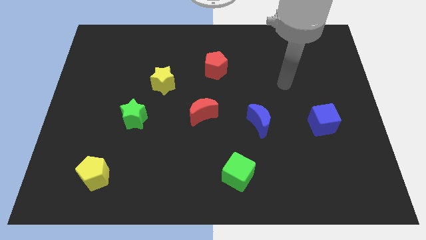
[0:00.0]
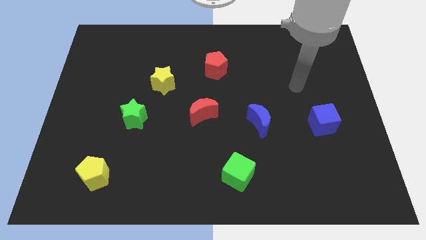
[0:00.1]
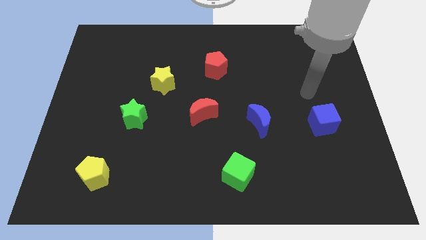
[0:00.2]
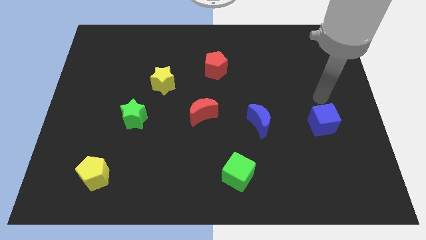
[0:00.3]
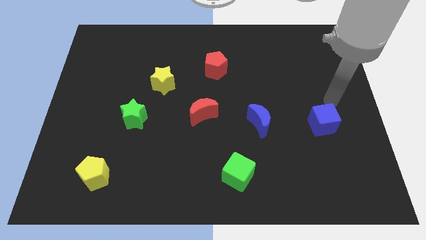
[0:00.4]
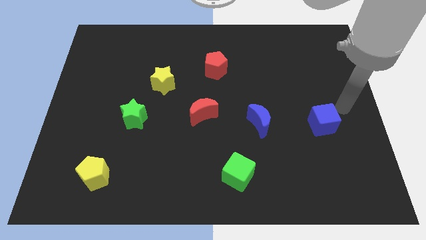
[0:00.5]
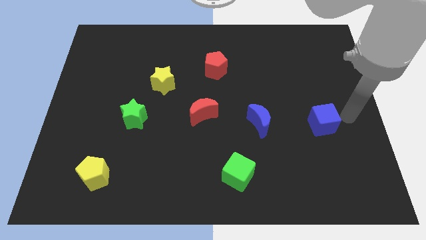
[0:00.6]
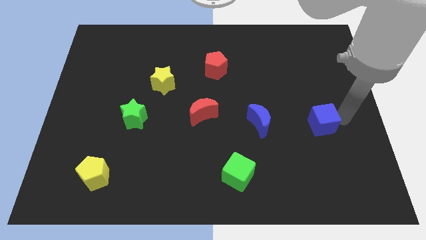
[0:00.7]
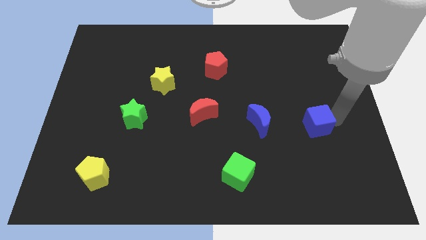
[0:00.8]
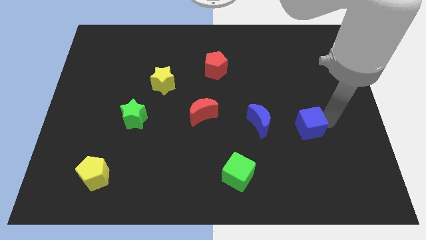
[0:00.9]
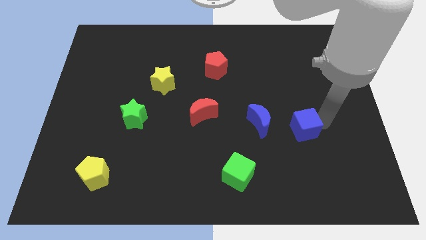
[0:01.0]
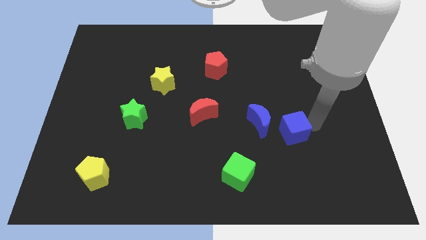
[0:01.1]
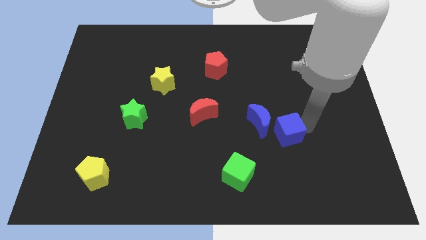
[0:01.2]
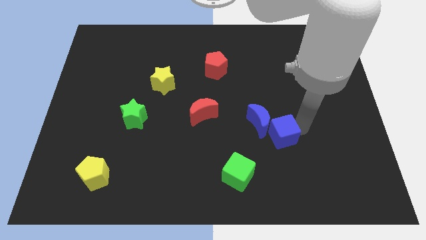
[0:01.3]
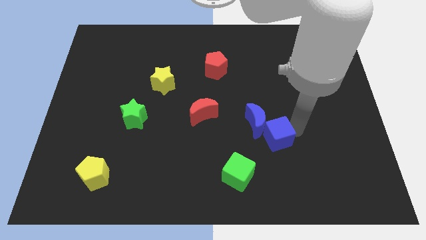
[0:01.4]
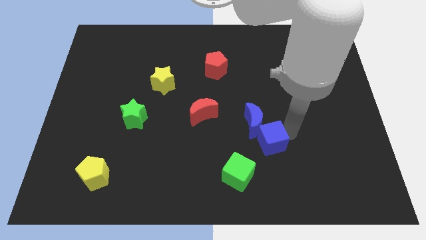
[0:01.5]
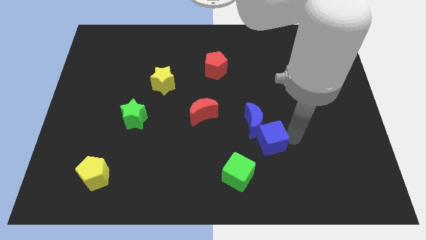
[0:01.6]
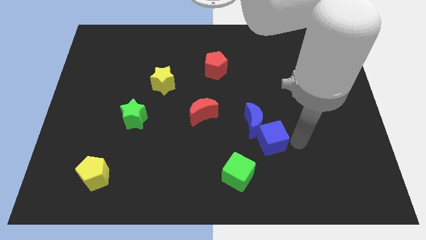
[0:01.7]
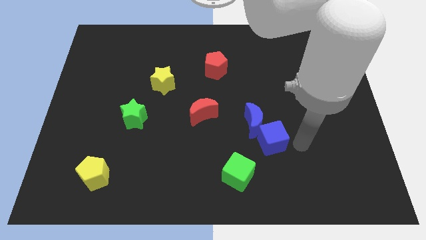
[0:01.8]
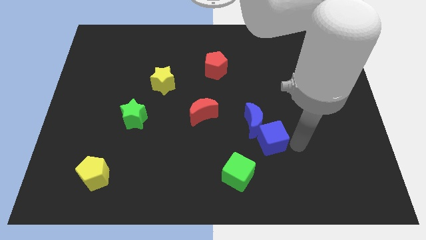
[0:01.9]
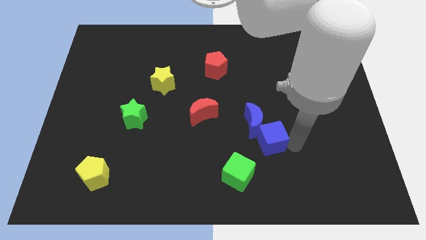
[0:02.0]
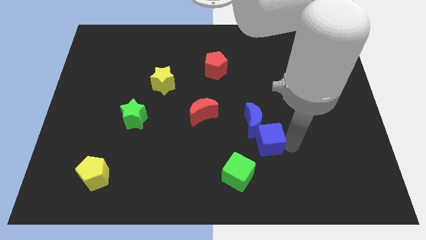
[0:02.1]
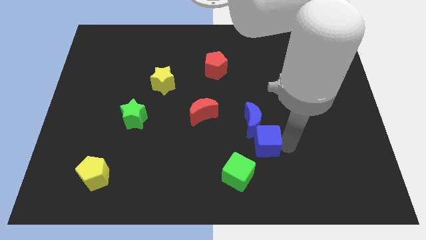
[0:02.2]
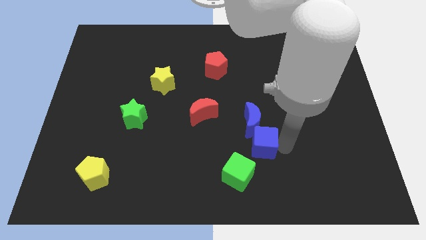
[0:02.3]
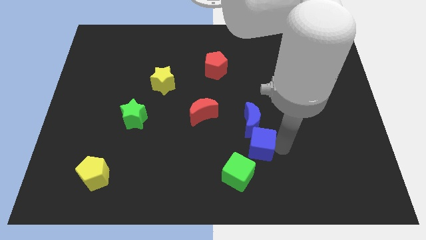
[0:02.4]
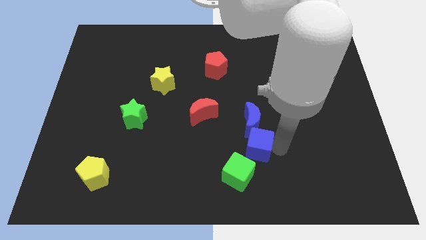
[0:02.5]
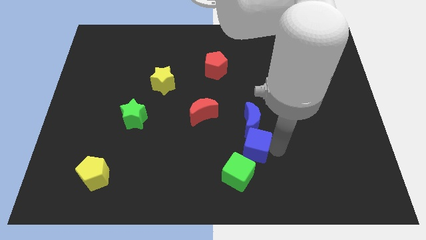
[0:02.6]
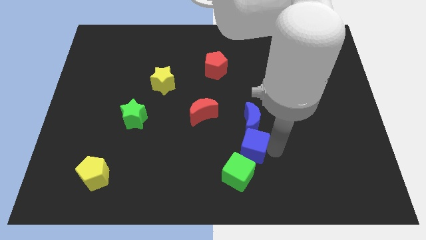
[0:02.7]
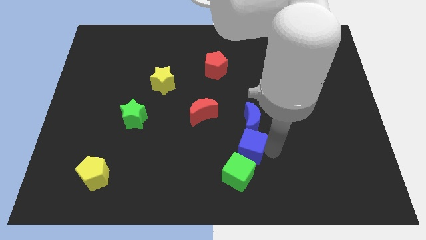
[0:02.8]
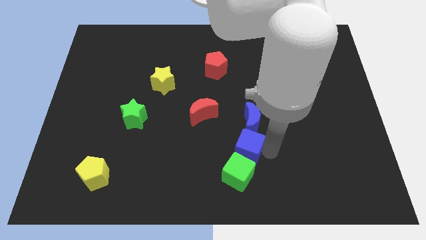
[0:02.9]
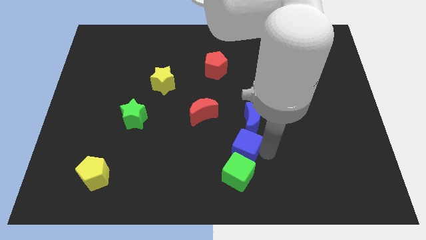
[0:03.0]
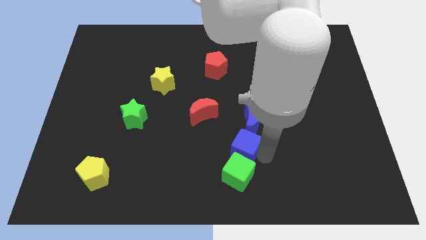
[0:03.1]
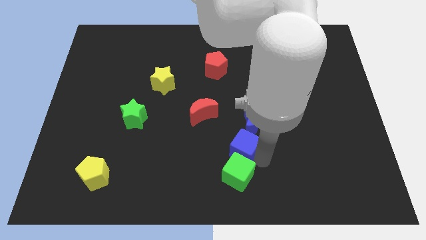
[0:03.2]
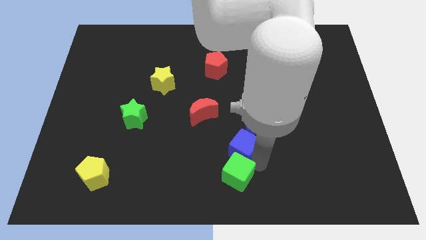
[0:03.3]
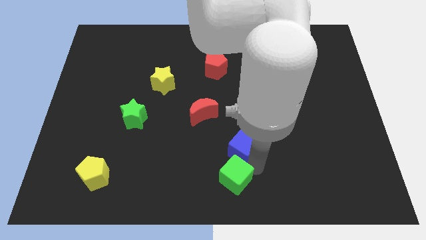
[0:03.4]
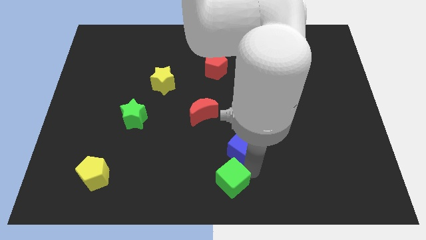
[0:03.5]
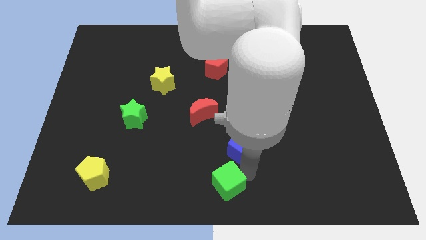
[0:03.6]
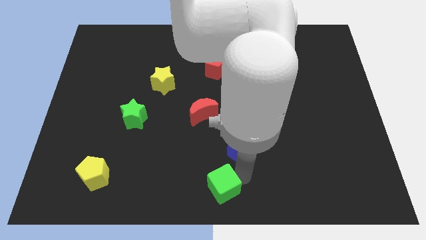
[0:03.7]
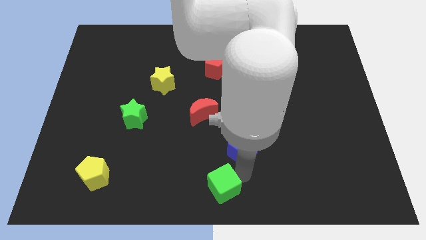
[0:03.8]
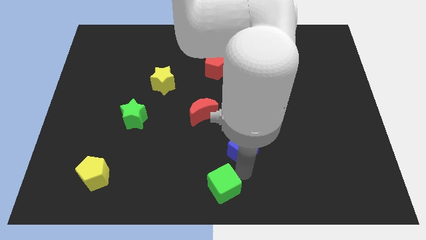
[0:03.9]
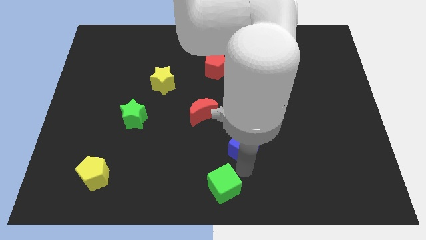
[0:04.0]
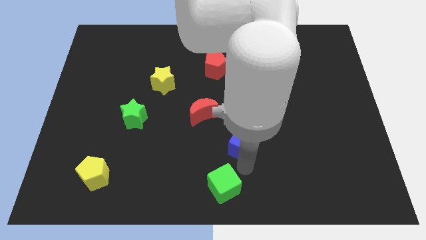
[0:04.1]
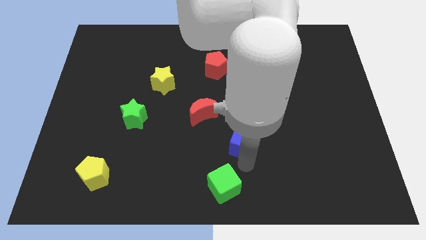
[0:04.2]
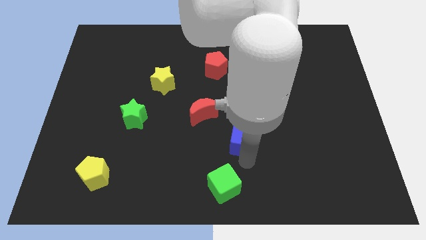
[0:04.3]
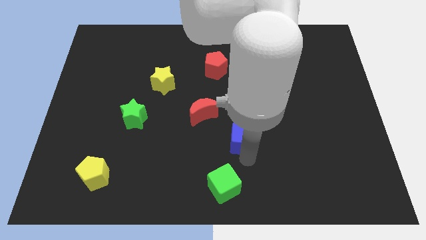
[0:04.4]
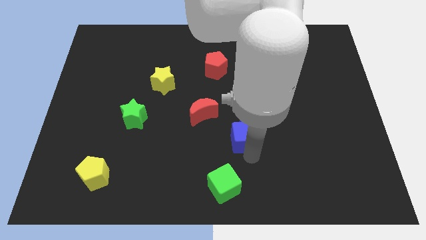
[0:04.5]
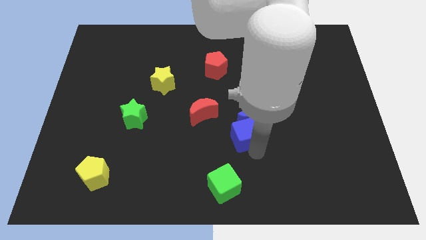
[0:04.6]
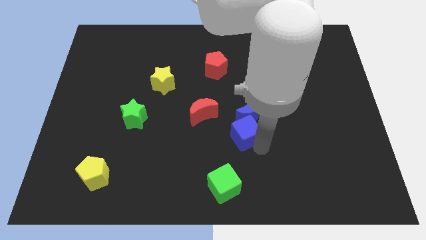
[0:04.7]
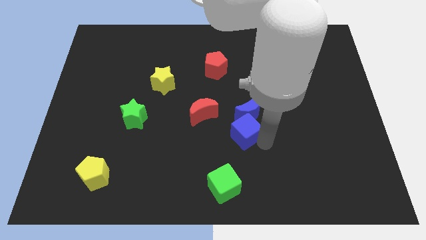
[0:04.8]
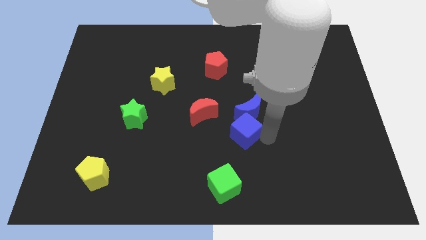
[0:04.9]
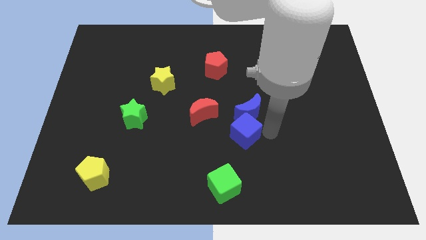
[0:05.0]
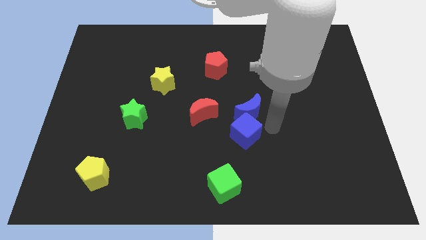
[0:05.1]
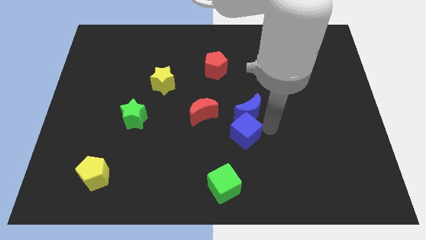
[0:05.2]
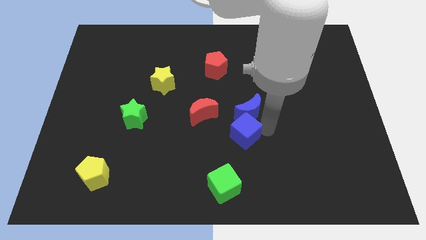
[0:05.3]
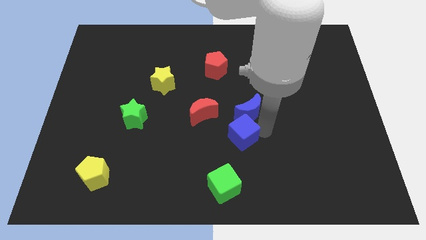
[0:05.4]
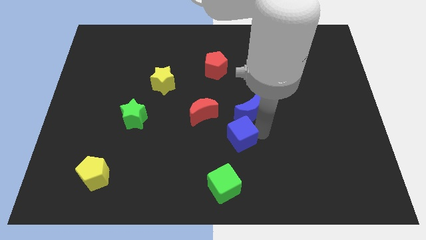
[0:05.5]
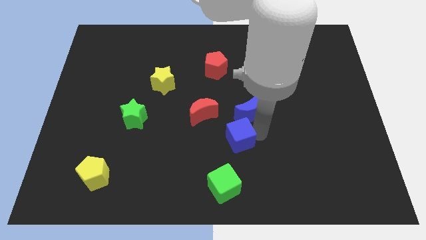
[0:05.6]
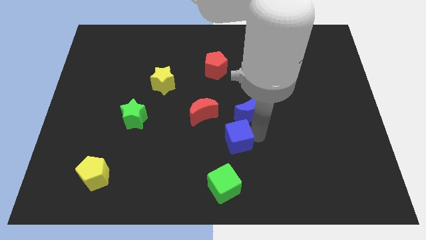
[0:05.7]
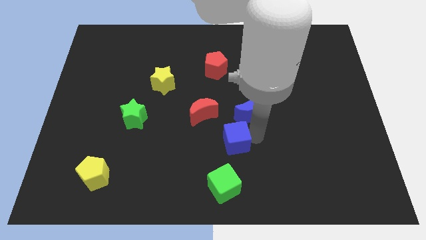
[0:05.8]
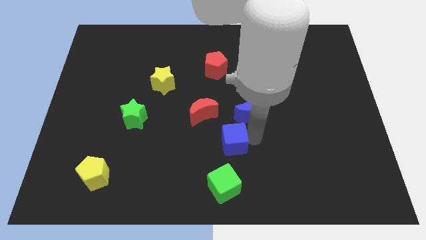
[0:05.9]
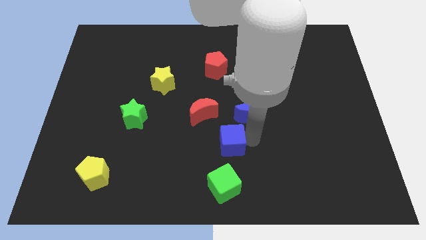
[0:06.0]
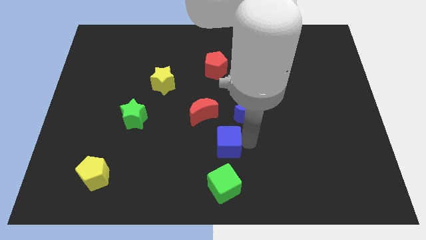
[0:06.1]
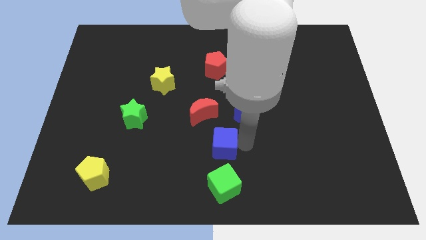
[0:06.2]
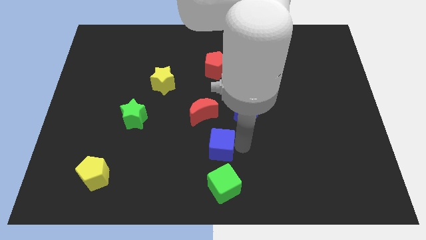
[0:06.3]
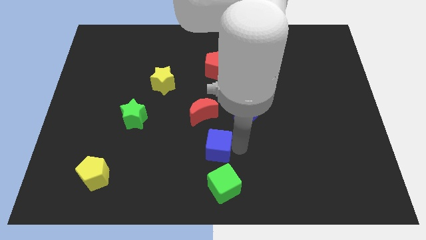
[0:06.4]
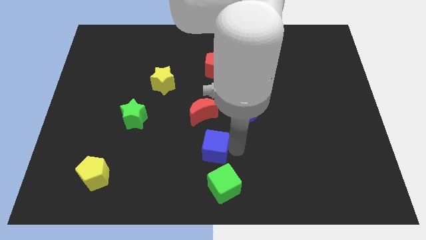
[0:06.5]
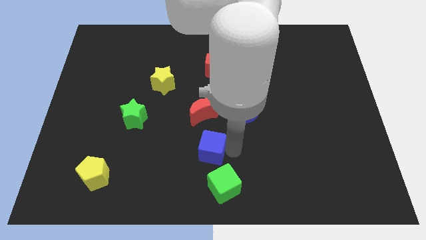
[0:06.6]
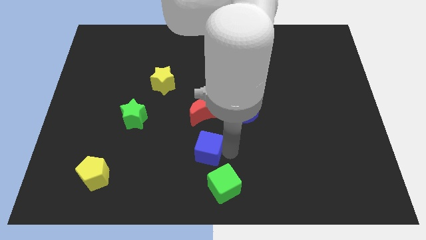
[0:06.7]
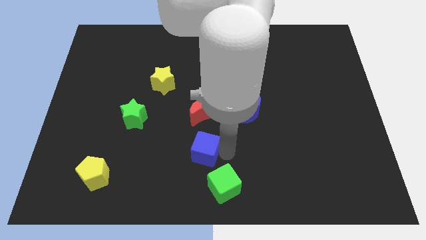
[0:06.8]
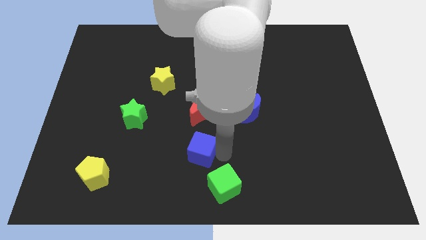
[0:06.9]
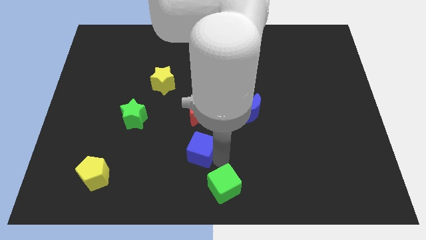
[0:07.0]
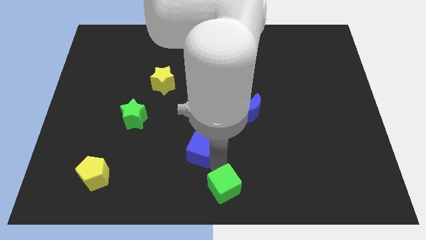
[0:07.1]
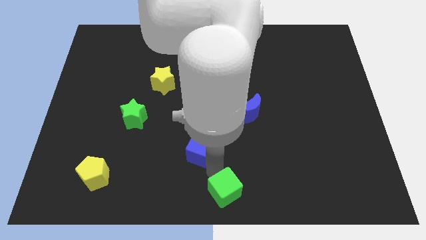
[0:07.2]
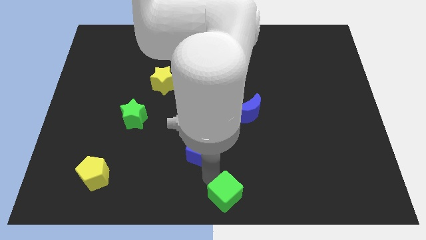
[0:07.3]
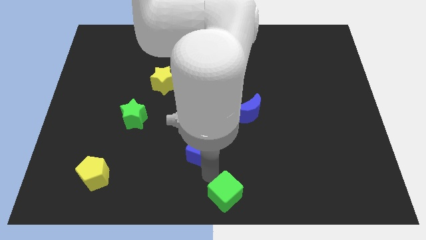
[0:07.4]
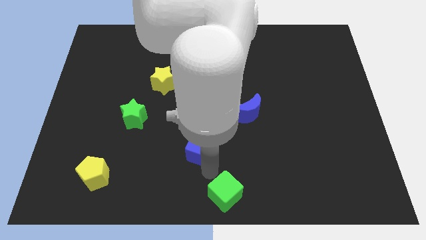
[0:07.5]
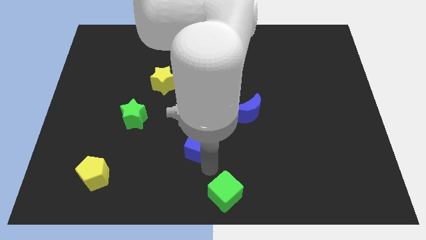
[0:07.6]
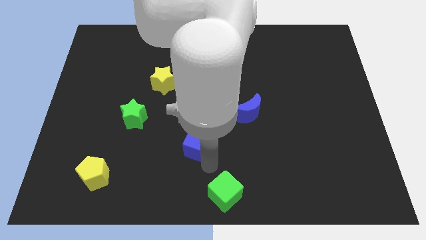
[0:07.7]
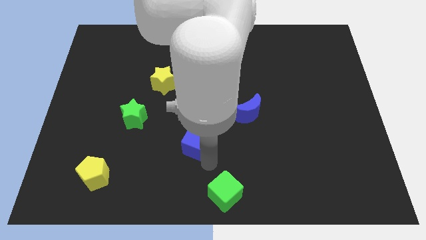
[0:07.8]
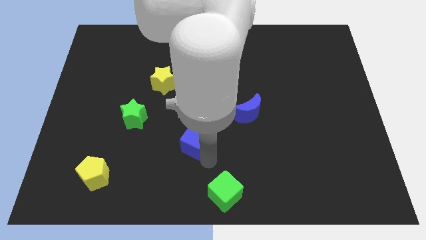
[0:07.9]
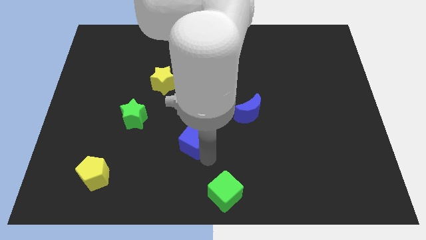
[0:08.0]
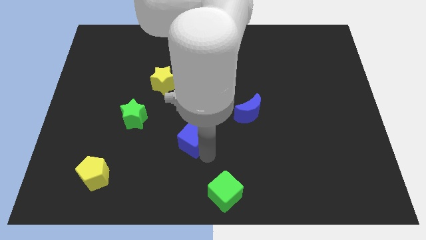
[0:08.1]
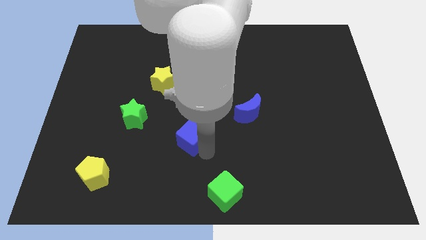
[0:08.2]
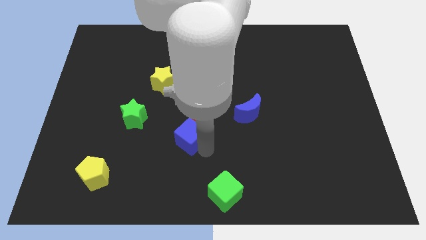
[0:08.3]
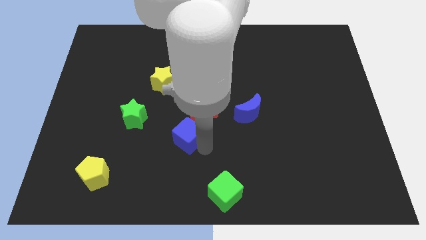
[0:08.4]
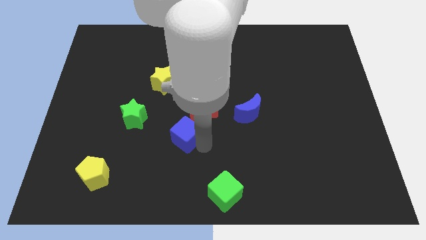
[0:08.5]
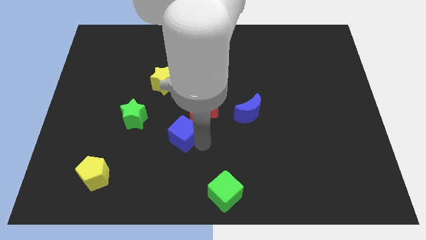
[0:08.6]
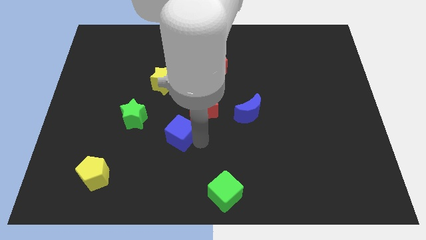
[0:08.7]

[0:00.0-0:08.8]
move the blue cube to the bottom right of the green star
